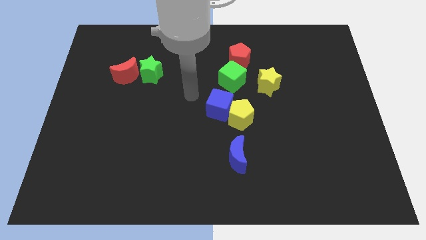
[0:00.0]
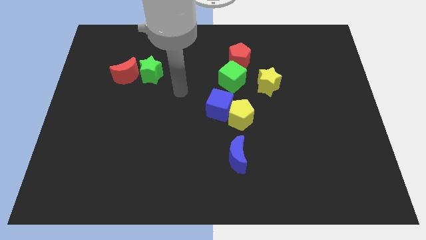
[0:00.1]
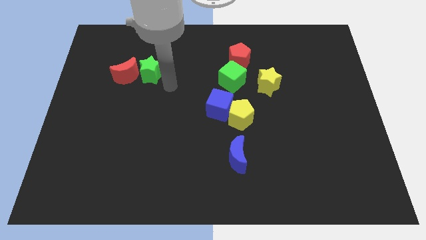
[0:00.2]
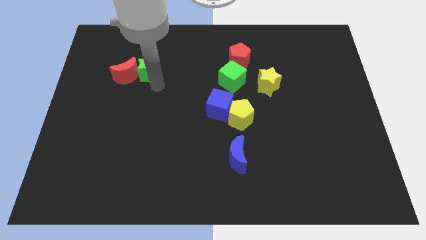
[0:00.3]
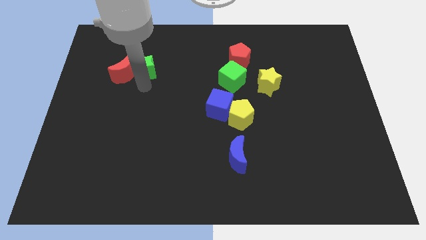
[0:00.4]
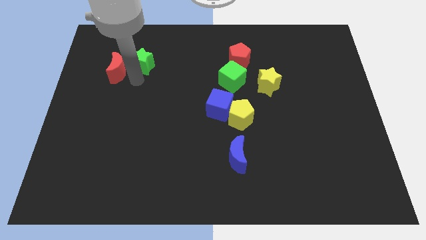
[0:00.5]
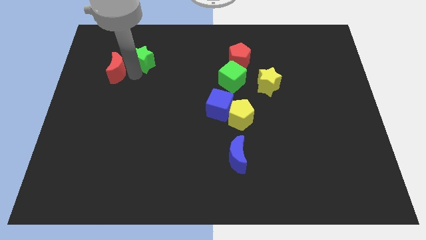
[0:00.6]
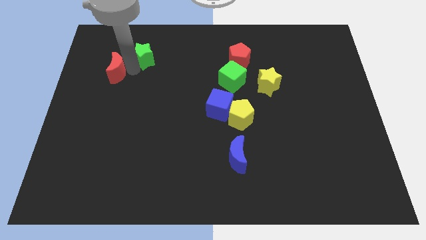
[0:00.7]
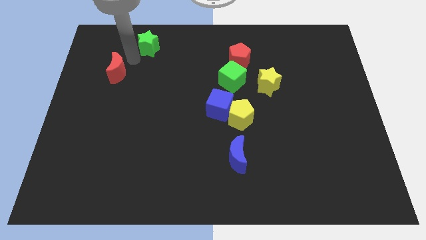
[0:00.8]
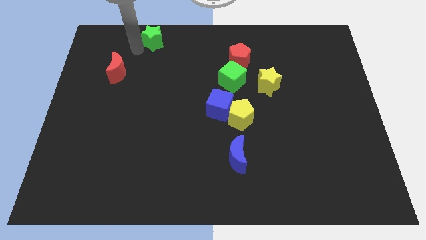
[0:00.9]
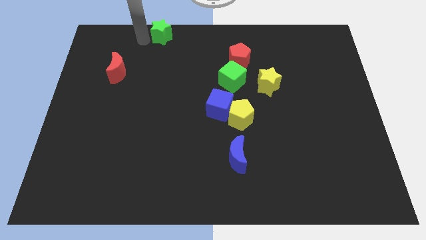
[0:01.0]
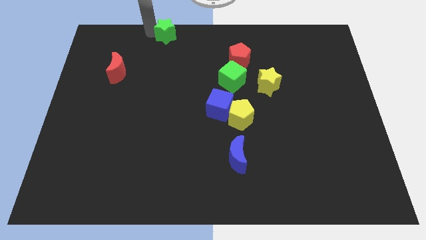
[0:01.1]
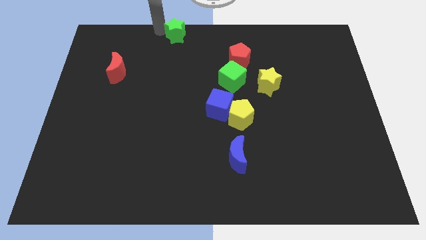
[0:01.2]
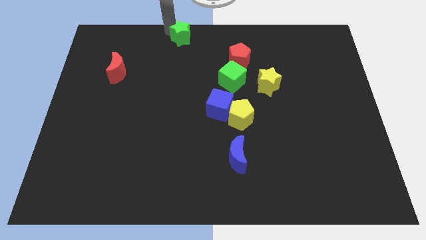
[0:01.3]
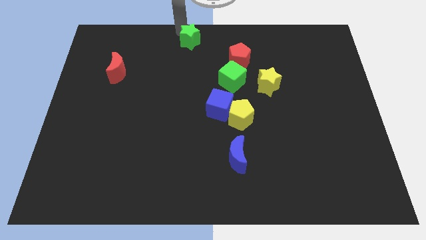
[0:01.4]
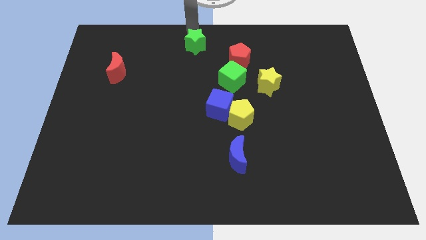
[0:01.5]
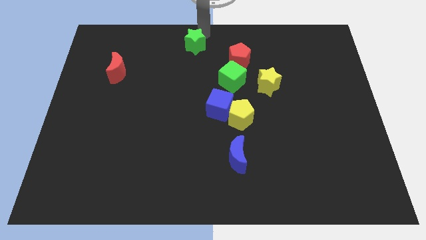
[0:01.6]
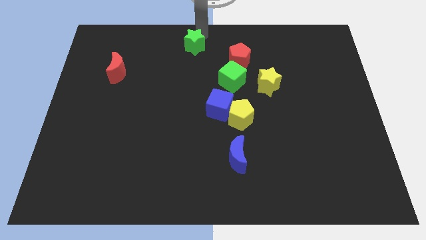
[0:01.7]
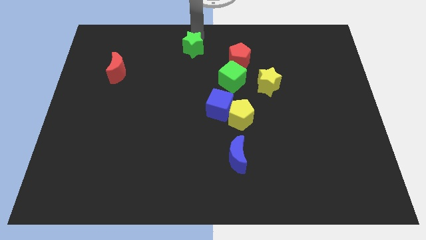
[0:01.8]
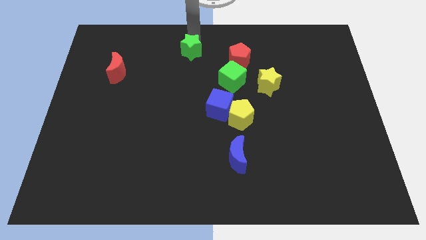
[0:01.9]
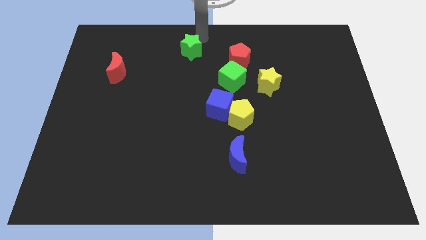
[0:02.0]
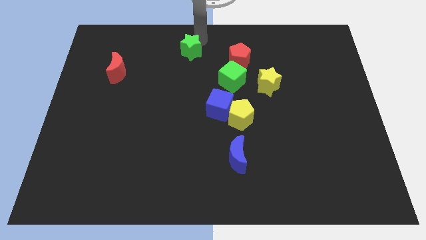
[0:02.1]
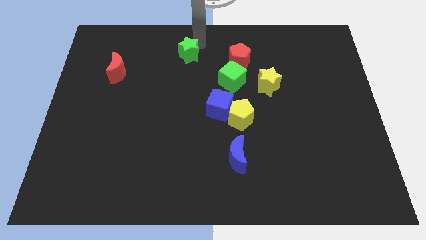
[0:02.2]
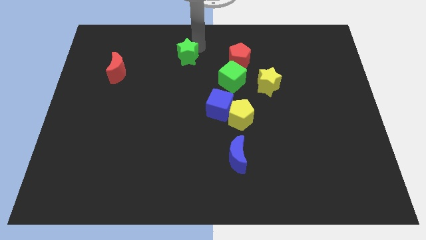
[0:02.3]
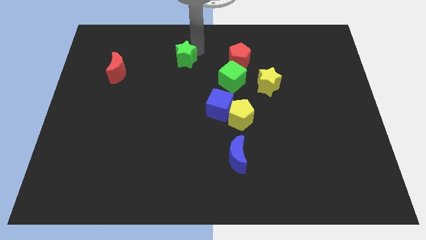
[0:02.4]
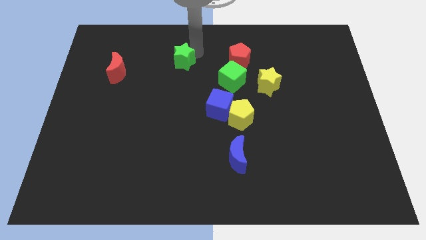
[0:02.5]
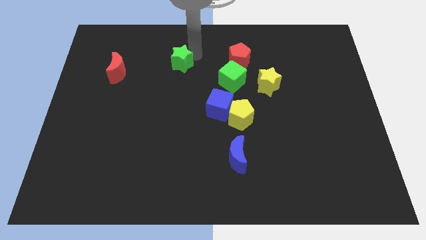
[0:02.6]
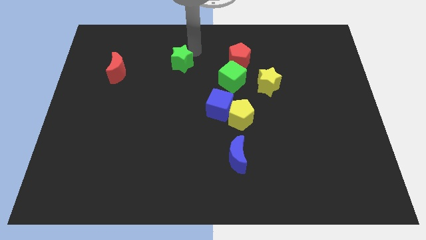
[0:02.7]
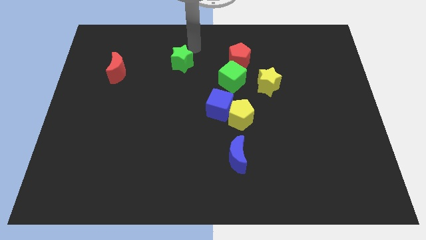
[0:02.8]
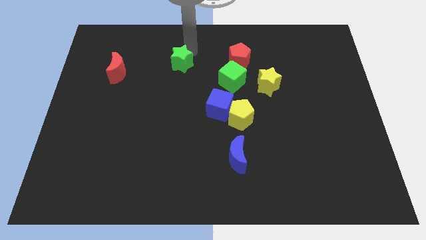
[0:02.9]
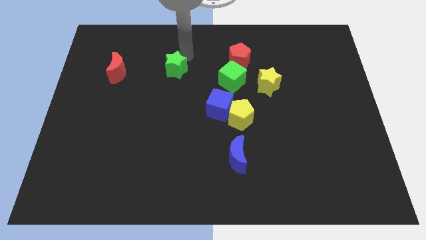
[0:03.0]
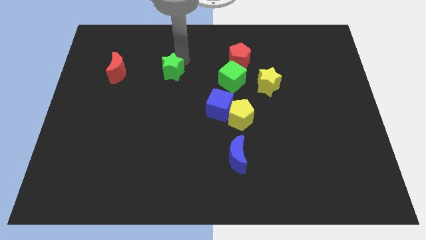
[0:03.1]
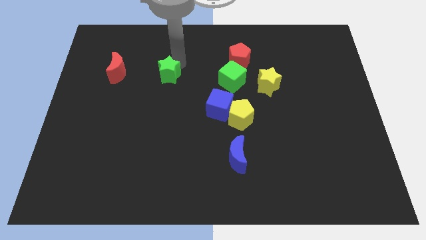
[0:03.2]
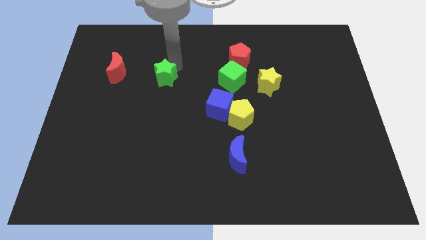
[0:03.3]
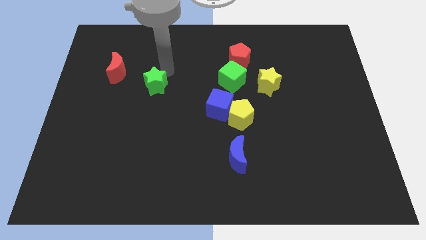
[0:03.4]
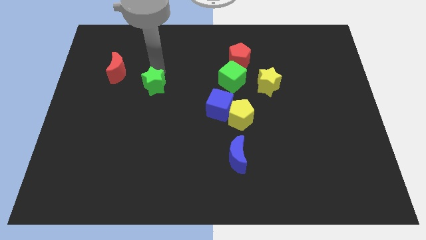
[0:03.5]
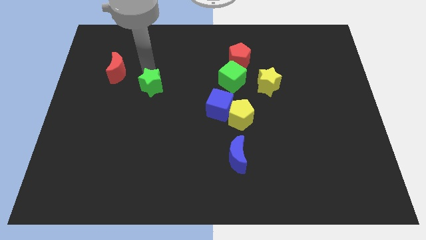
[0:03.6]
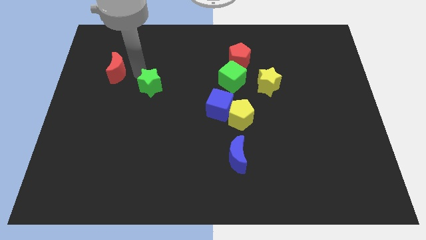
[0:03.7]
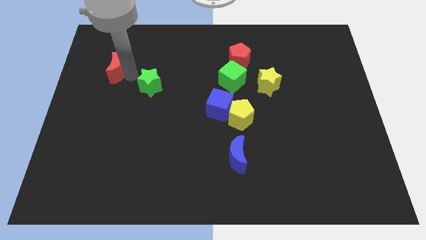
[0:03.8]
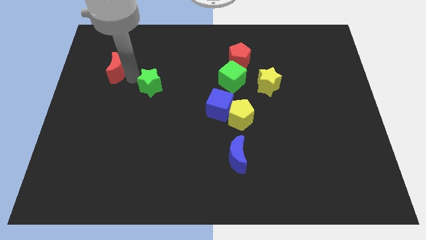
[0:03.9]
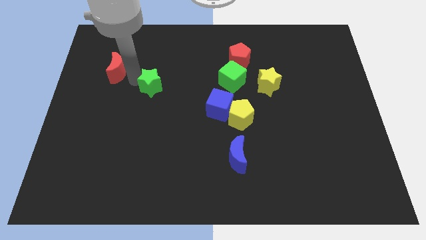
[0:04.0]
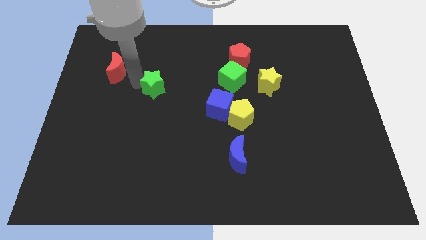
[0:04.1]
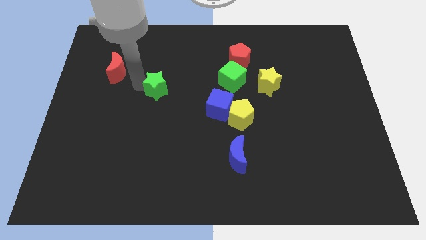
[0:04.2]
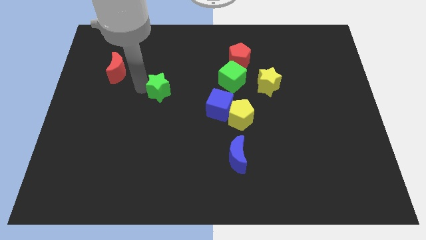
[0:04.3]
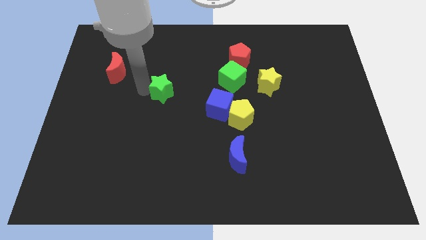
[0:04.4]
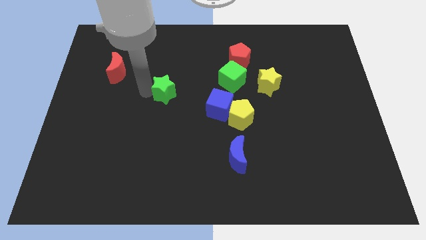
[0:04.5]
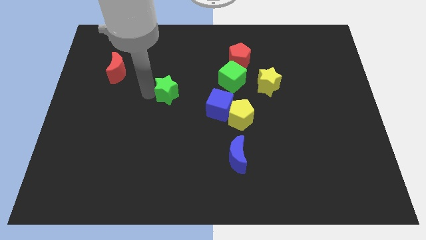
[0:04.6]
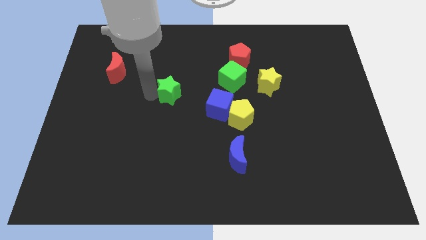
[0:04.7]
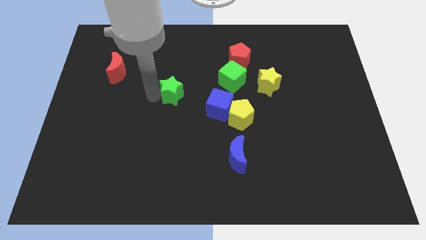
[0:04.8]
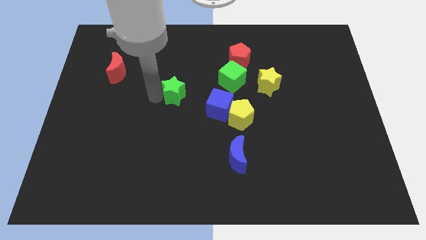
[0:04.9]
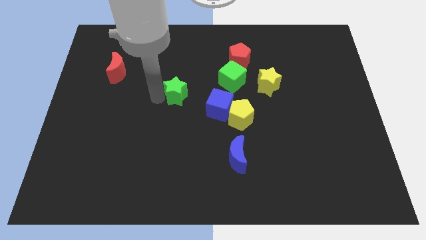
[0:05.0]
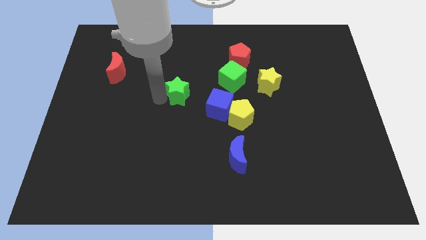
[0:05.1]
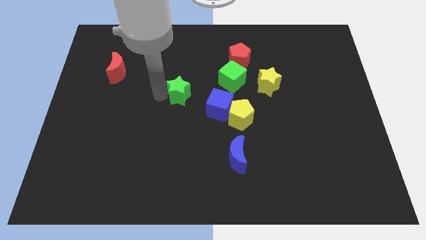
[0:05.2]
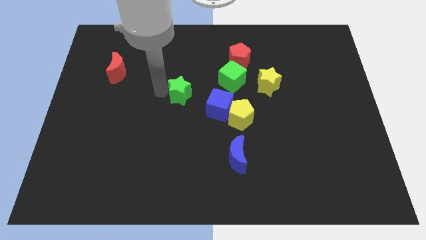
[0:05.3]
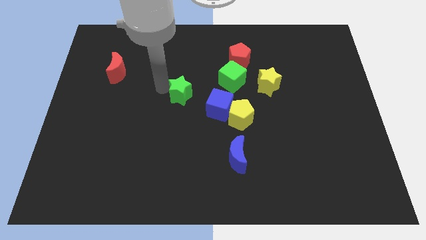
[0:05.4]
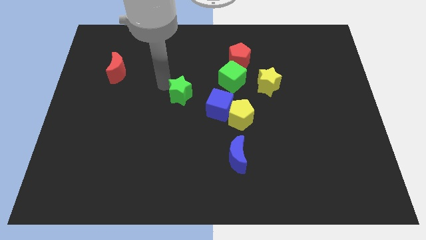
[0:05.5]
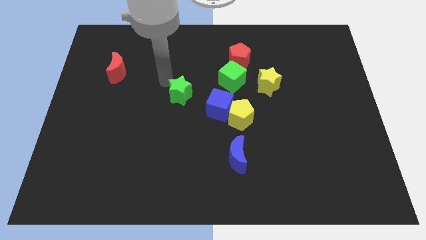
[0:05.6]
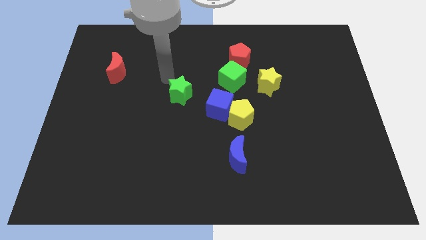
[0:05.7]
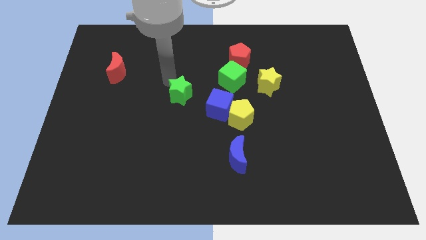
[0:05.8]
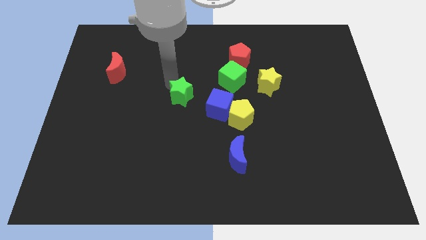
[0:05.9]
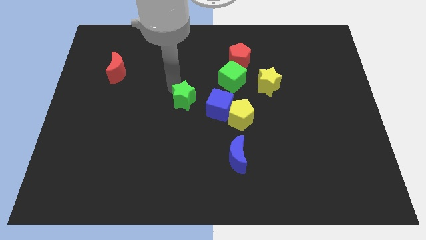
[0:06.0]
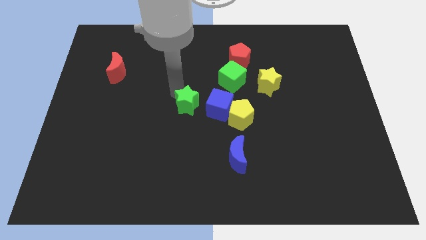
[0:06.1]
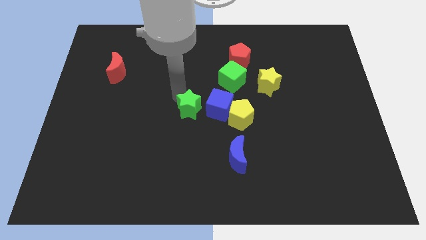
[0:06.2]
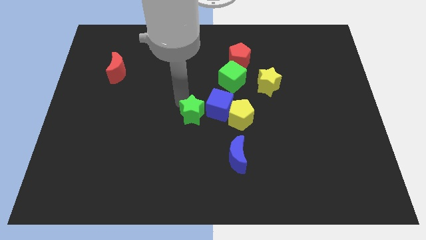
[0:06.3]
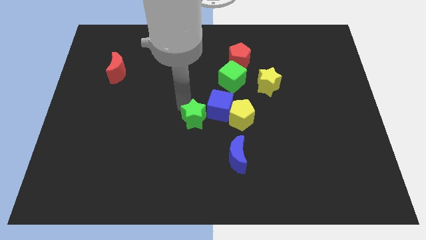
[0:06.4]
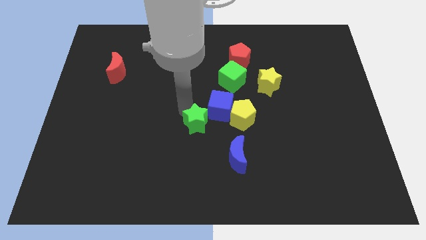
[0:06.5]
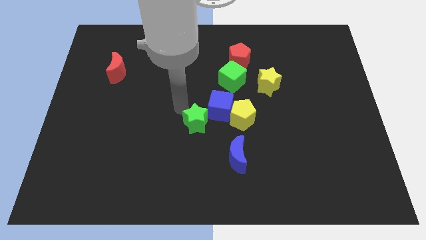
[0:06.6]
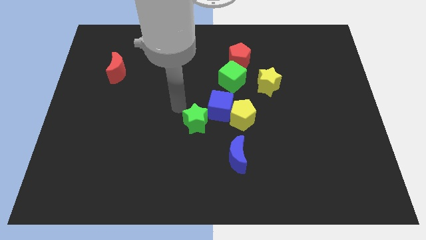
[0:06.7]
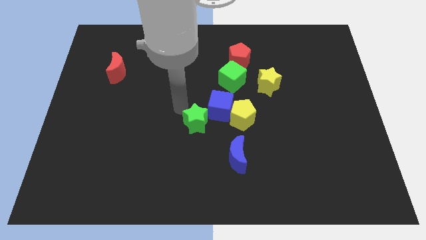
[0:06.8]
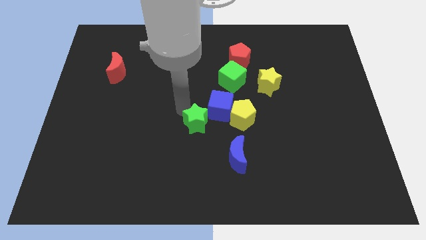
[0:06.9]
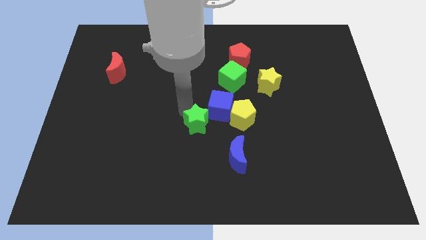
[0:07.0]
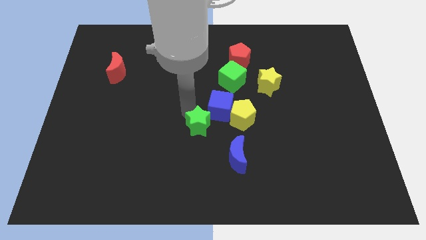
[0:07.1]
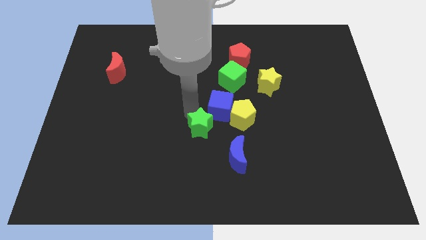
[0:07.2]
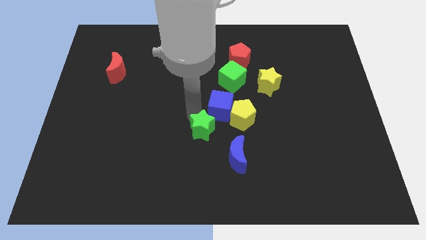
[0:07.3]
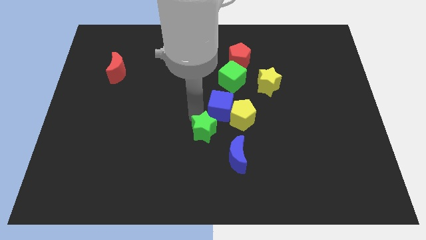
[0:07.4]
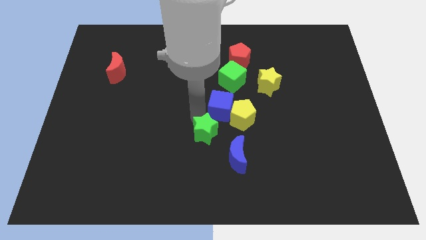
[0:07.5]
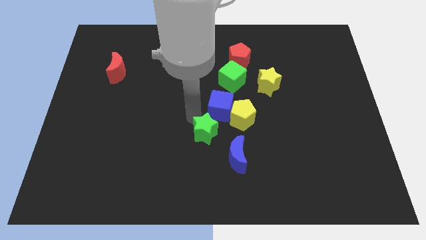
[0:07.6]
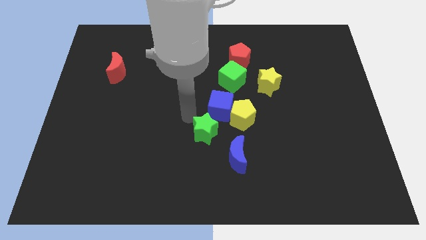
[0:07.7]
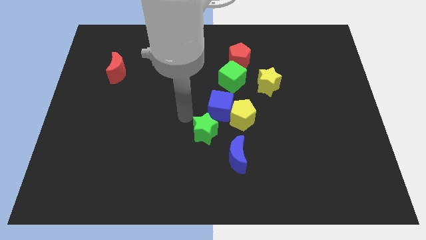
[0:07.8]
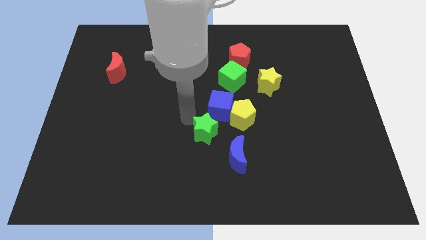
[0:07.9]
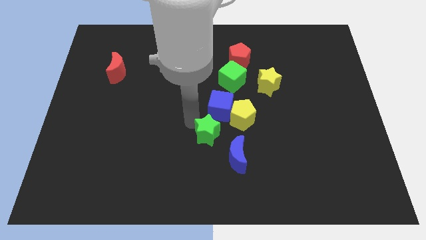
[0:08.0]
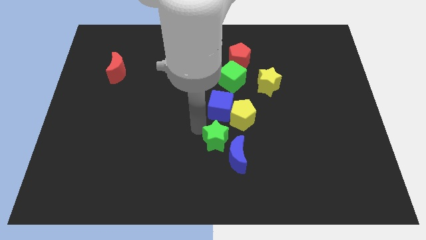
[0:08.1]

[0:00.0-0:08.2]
put the green star next to the blue moon
